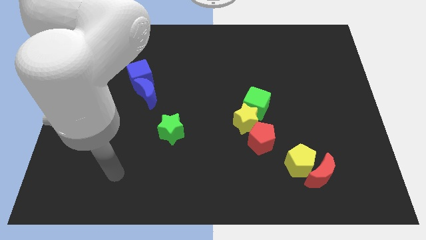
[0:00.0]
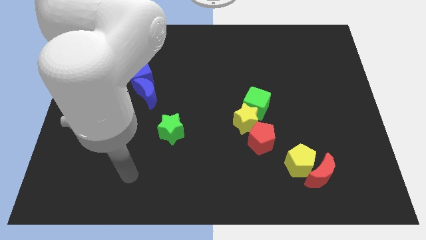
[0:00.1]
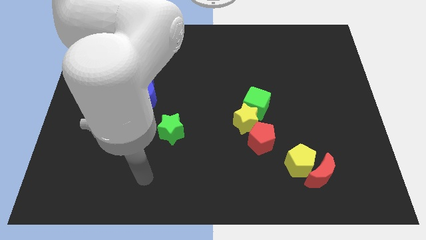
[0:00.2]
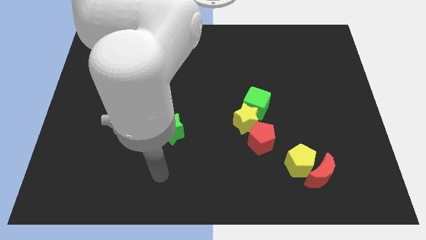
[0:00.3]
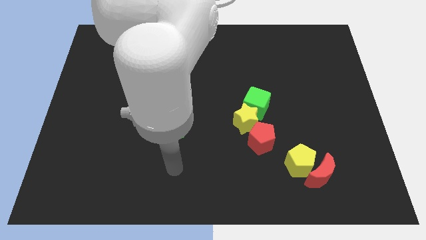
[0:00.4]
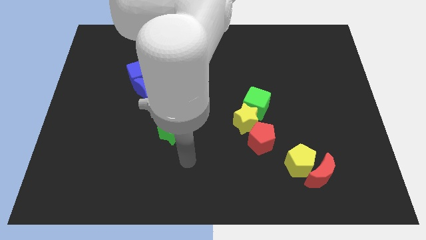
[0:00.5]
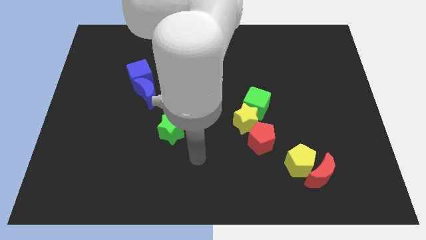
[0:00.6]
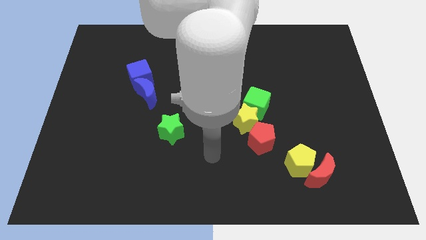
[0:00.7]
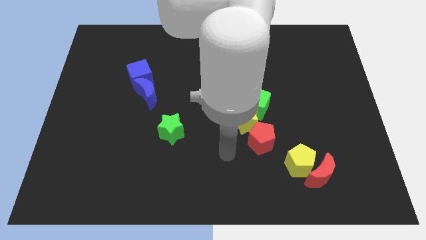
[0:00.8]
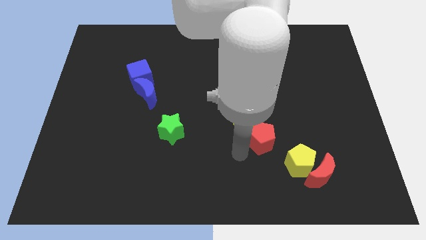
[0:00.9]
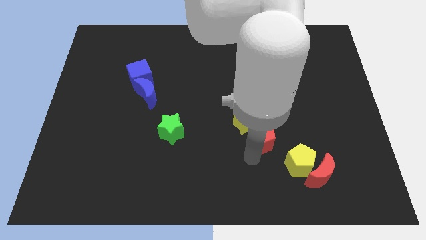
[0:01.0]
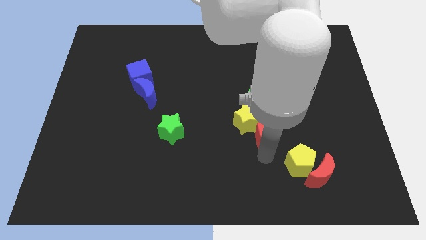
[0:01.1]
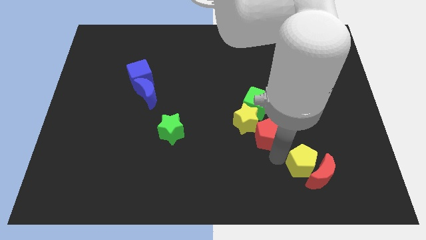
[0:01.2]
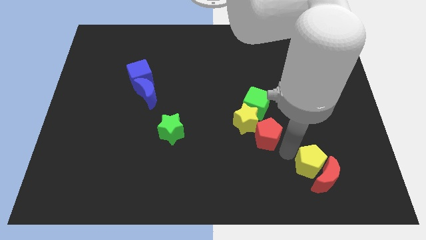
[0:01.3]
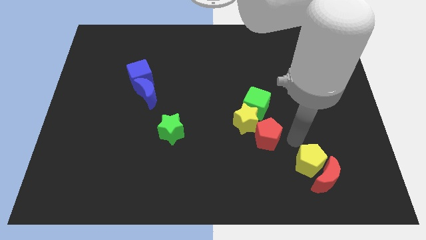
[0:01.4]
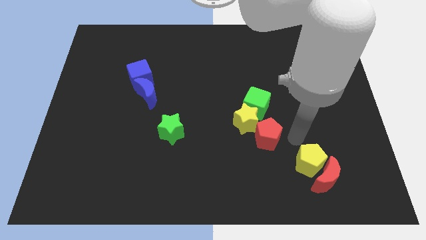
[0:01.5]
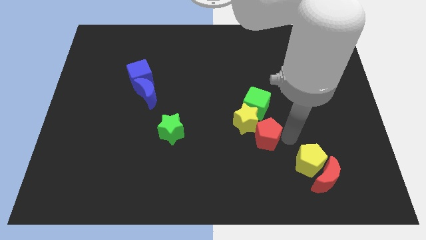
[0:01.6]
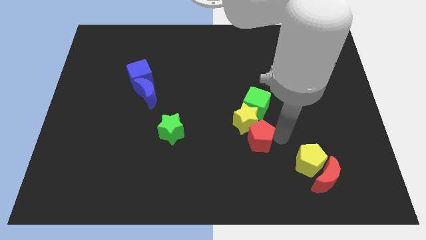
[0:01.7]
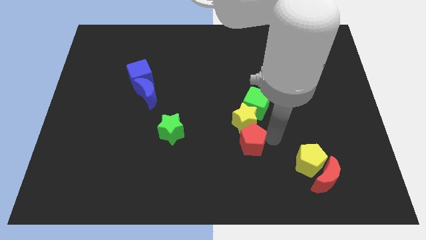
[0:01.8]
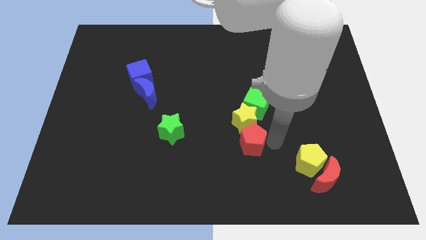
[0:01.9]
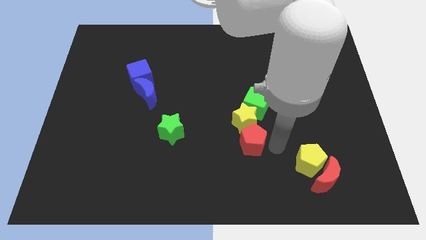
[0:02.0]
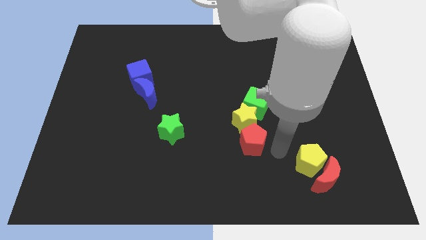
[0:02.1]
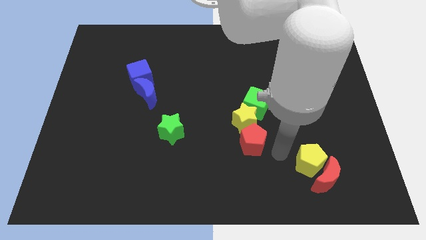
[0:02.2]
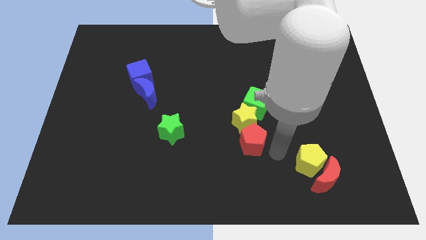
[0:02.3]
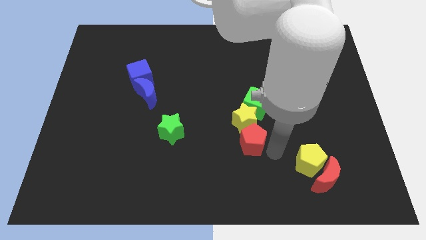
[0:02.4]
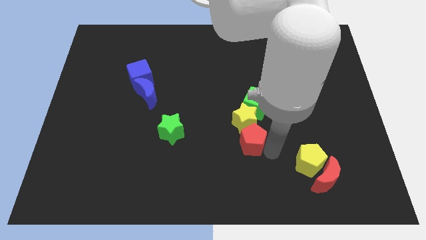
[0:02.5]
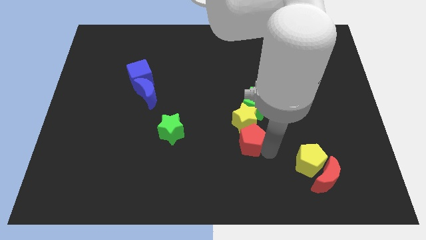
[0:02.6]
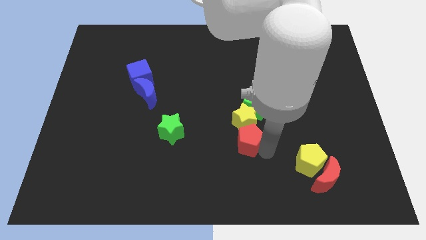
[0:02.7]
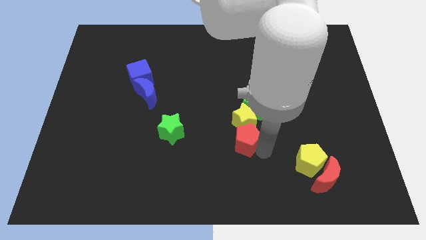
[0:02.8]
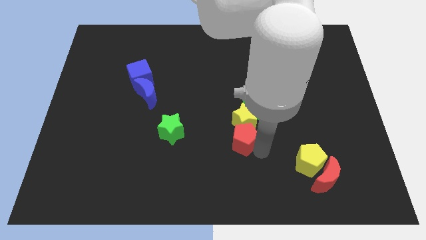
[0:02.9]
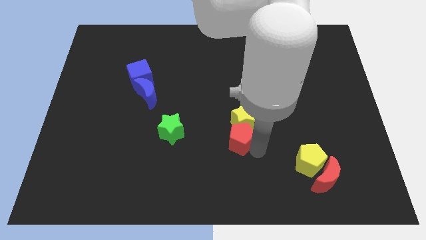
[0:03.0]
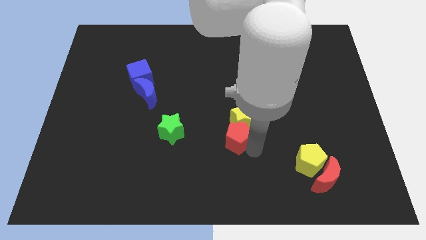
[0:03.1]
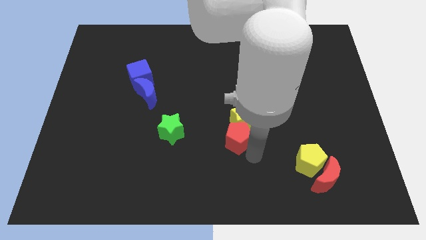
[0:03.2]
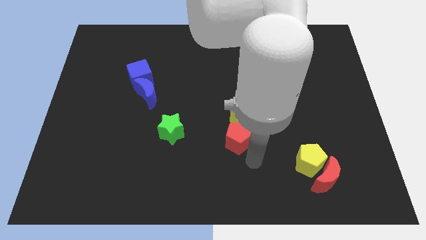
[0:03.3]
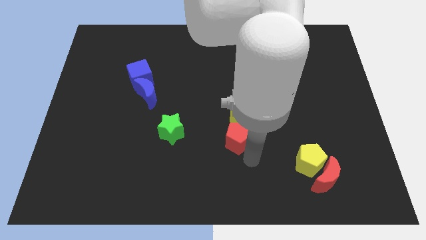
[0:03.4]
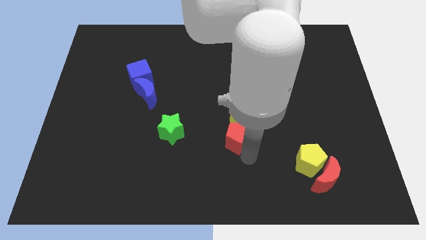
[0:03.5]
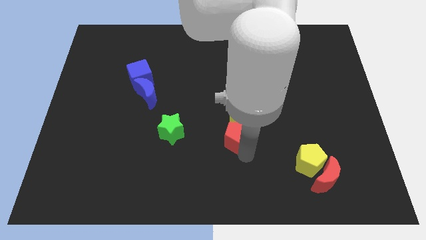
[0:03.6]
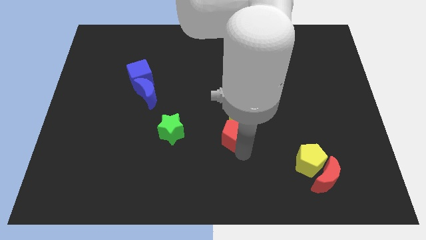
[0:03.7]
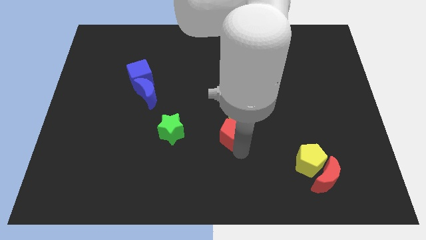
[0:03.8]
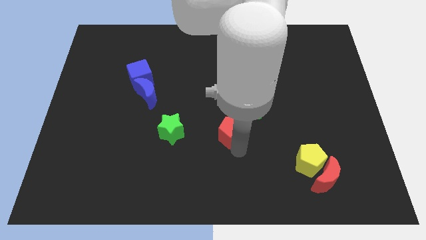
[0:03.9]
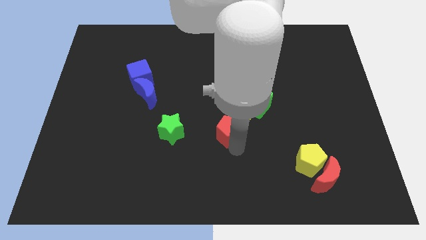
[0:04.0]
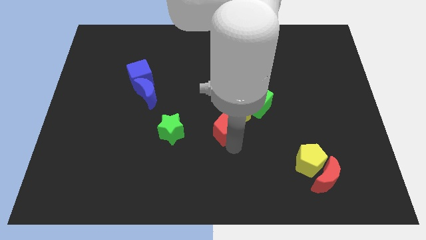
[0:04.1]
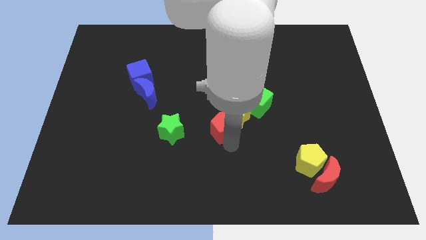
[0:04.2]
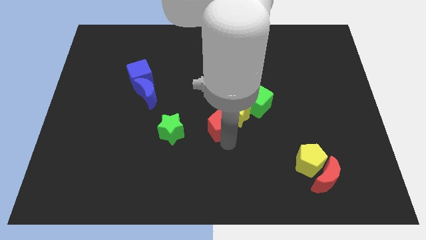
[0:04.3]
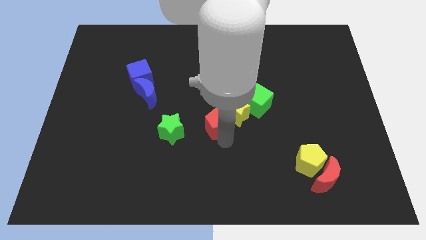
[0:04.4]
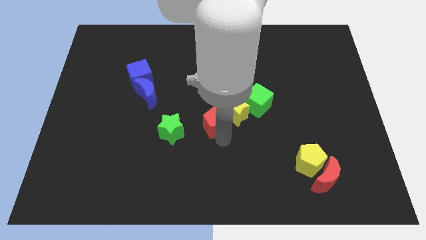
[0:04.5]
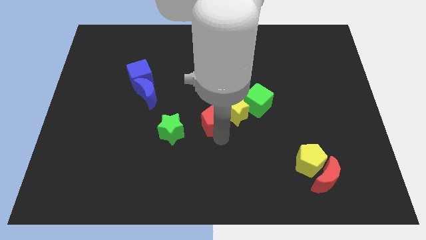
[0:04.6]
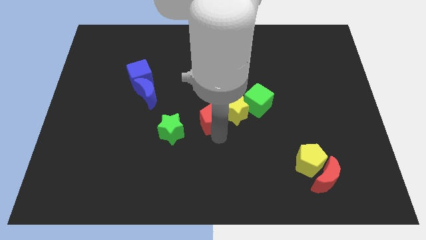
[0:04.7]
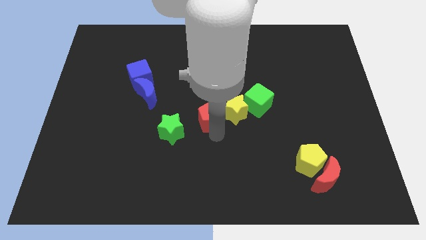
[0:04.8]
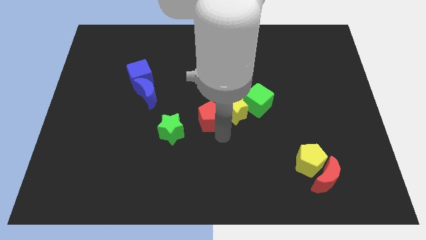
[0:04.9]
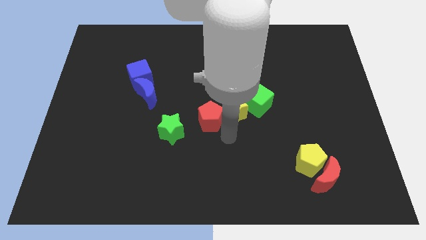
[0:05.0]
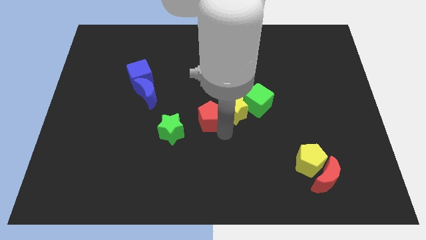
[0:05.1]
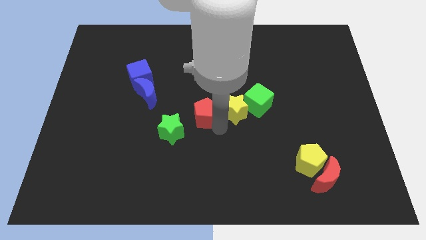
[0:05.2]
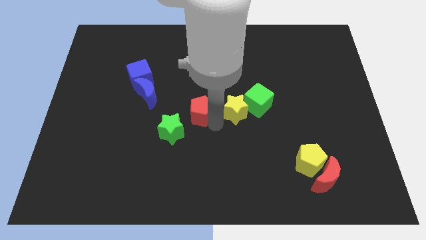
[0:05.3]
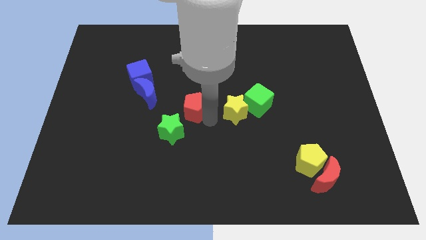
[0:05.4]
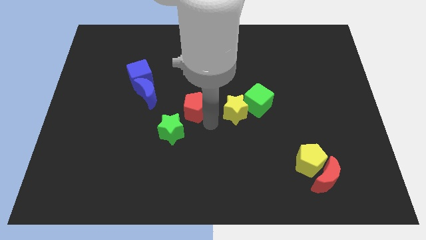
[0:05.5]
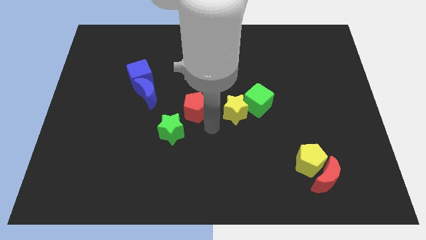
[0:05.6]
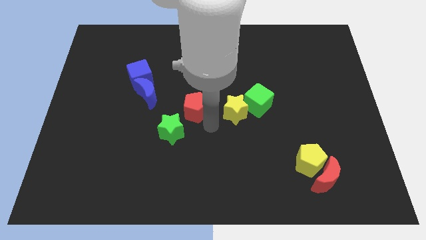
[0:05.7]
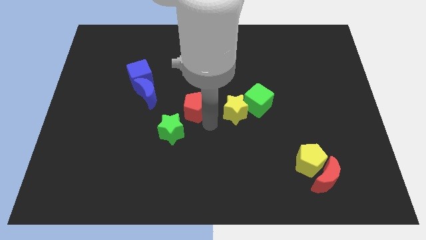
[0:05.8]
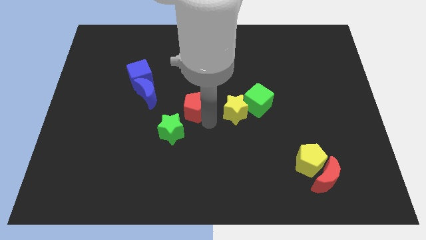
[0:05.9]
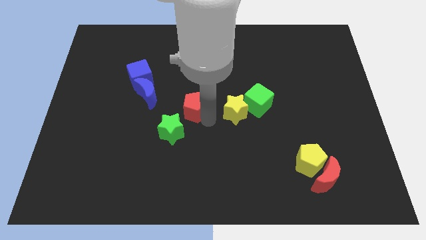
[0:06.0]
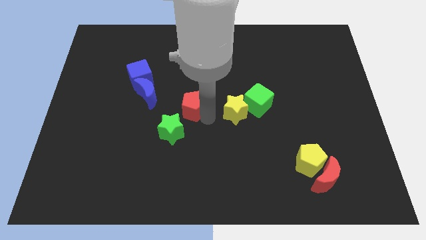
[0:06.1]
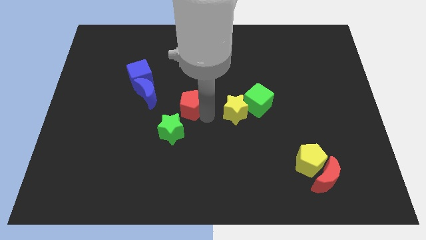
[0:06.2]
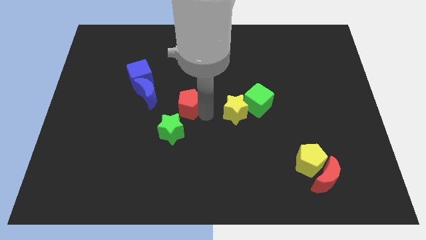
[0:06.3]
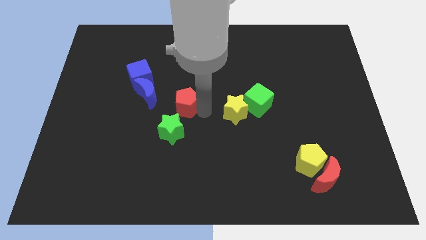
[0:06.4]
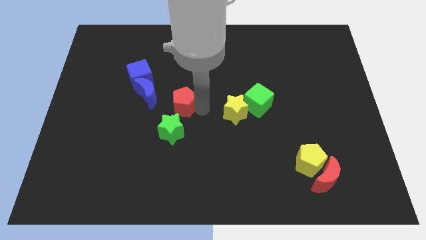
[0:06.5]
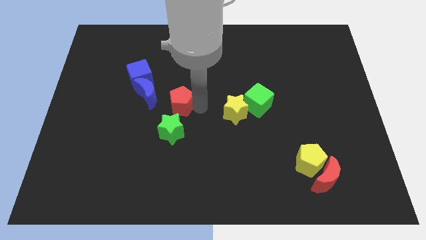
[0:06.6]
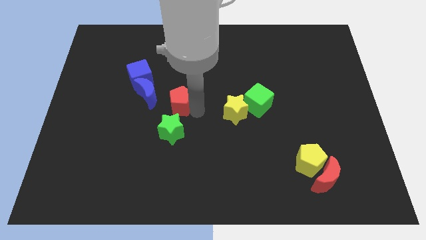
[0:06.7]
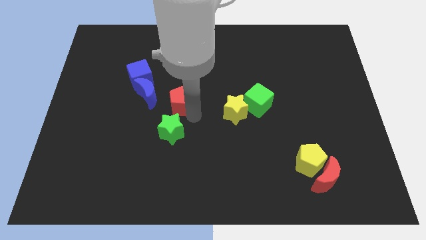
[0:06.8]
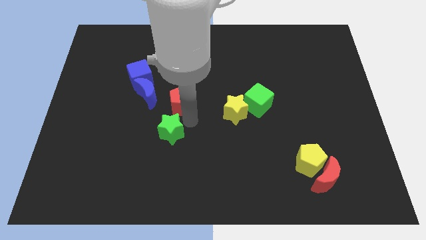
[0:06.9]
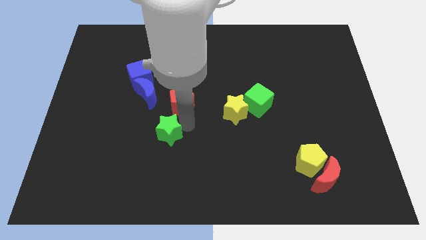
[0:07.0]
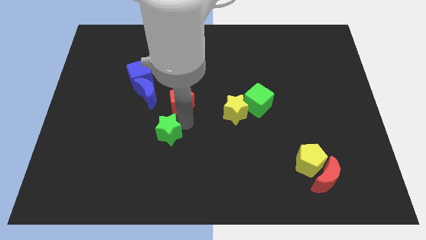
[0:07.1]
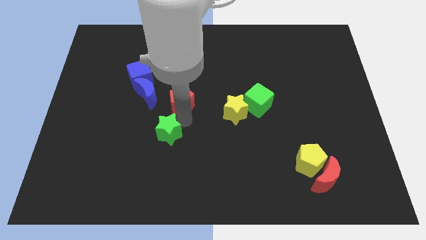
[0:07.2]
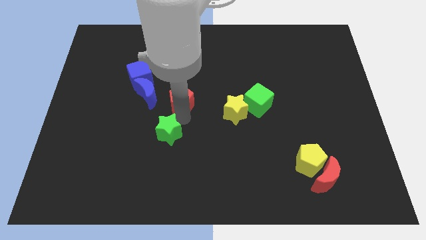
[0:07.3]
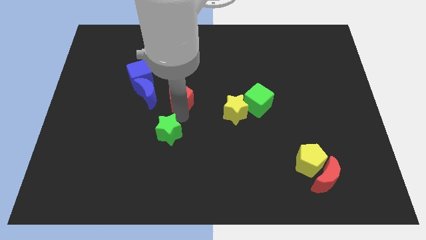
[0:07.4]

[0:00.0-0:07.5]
push the red pentagon diagonally upwards and left

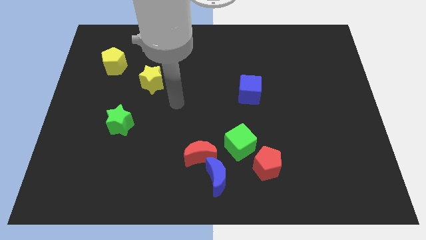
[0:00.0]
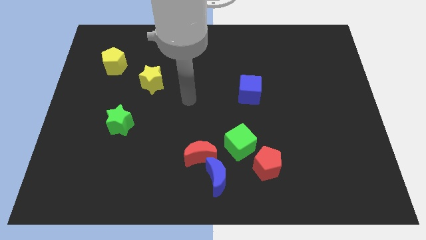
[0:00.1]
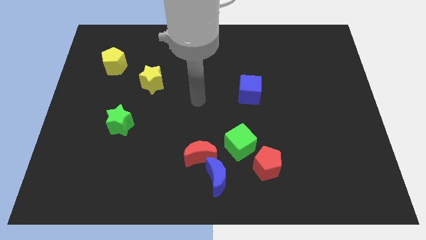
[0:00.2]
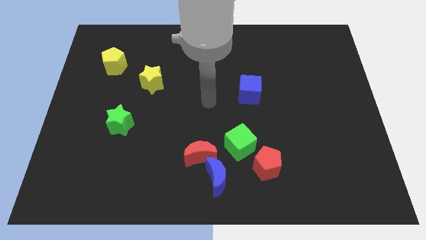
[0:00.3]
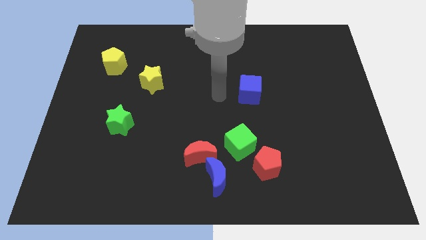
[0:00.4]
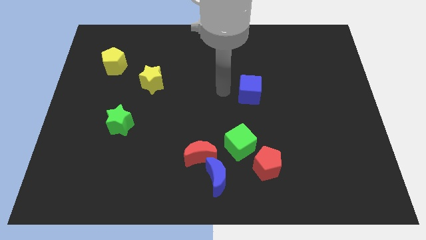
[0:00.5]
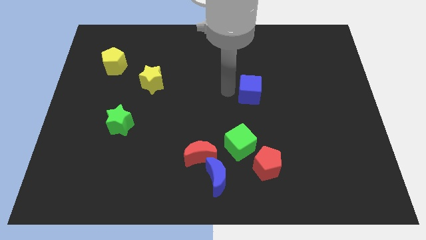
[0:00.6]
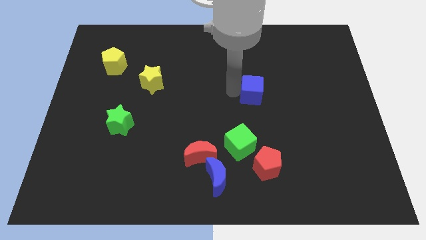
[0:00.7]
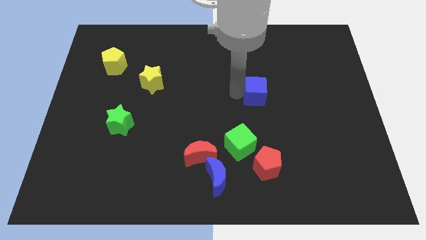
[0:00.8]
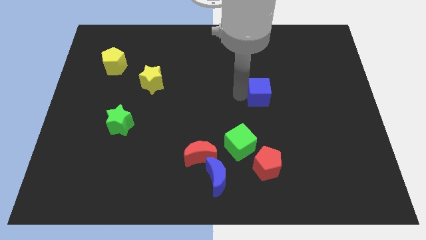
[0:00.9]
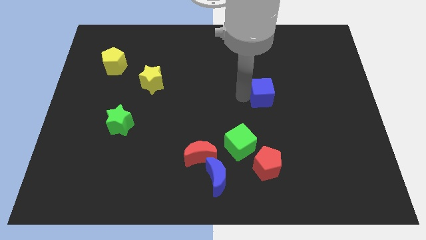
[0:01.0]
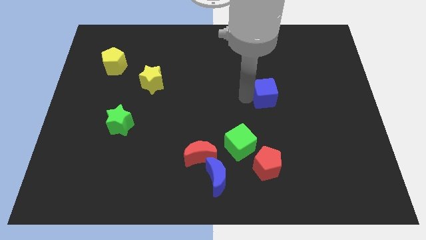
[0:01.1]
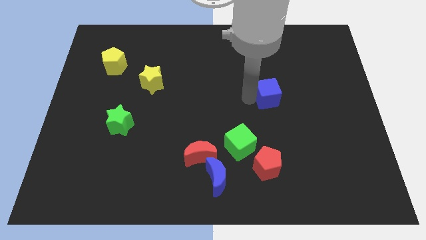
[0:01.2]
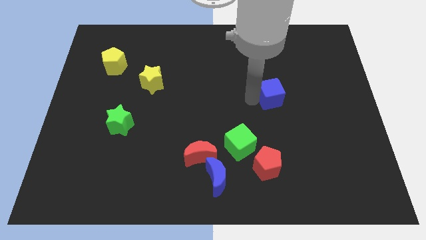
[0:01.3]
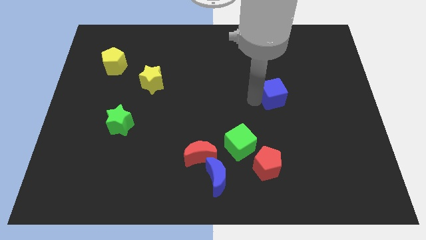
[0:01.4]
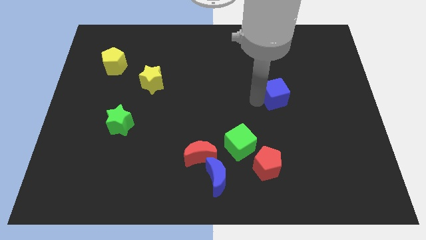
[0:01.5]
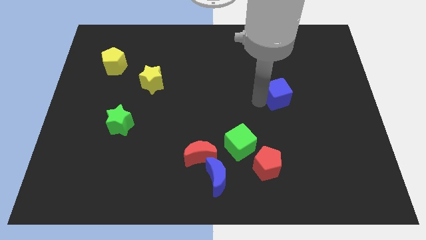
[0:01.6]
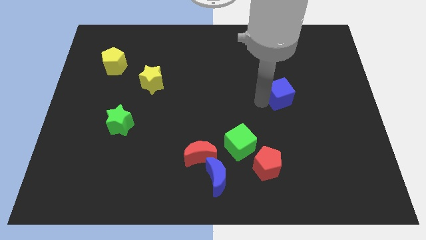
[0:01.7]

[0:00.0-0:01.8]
push the blue cube to the right slightly
